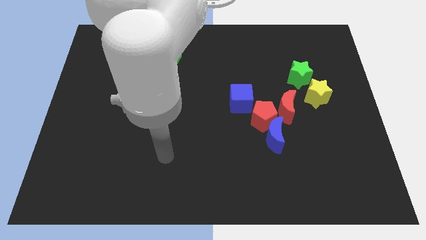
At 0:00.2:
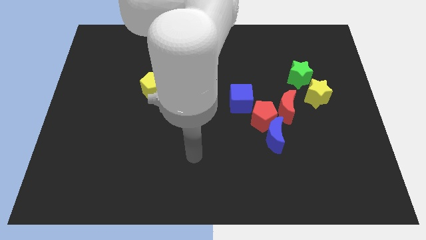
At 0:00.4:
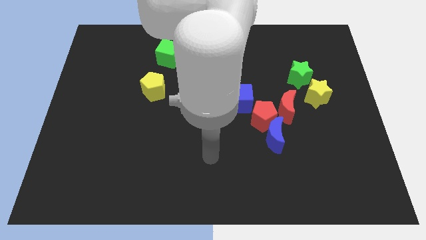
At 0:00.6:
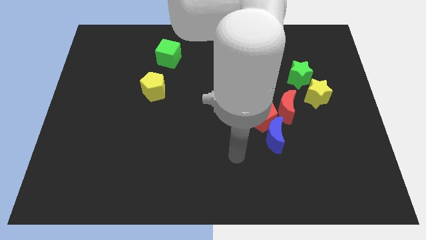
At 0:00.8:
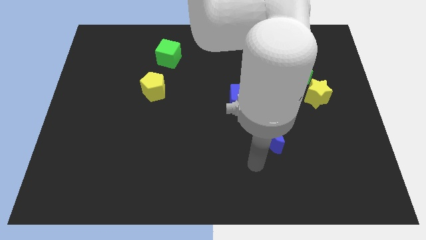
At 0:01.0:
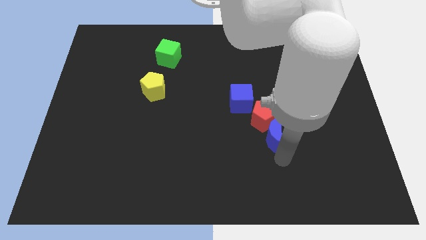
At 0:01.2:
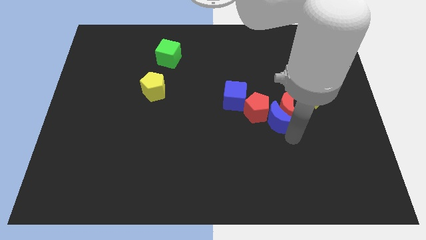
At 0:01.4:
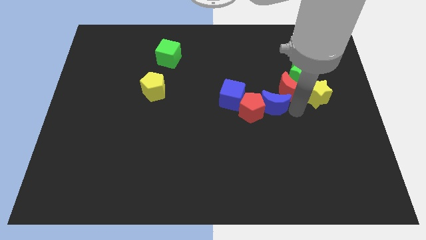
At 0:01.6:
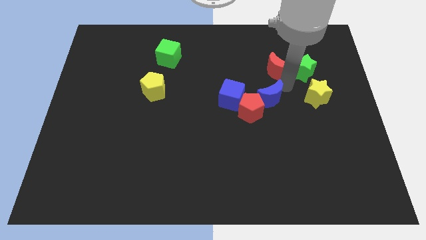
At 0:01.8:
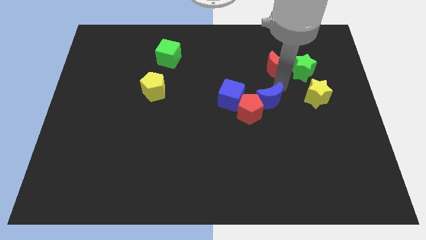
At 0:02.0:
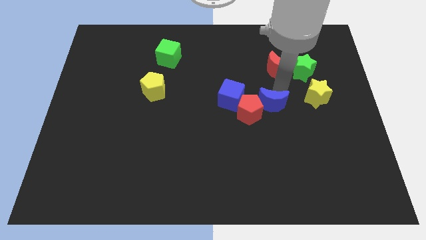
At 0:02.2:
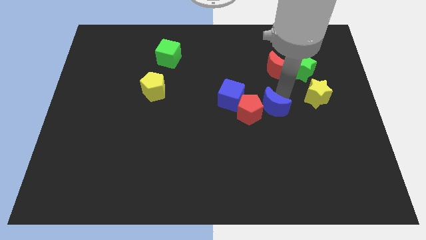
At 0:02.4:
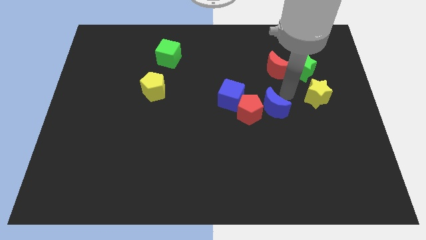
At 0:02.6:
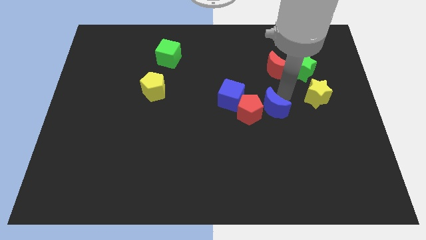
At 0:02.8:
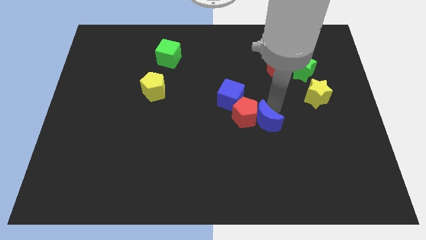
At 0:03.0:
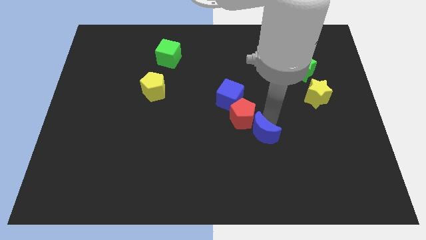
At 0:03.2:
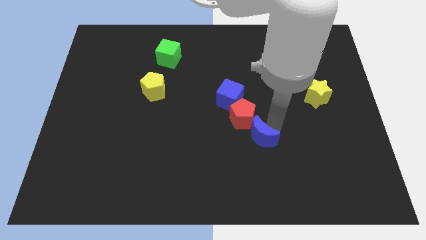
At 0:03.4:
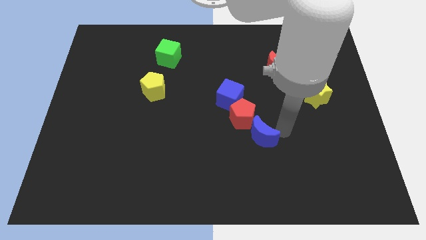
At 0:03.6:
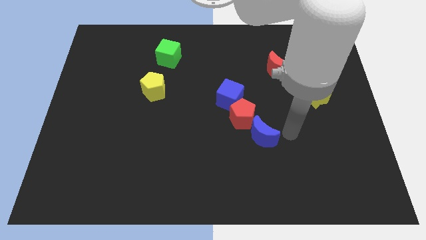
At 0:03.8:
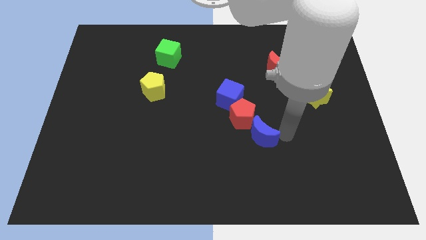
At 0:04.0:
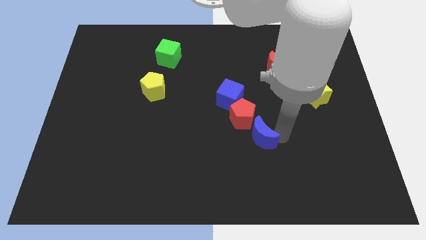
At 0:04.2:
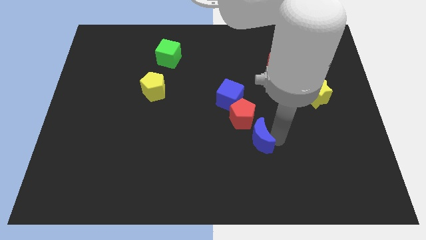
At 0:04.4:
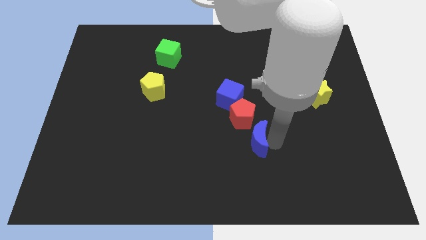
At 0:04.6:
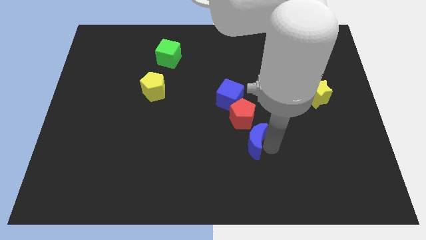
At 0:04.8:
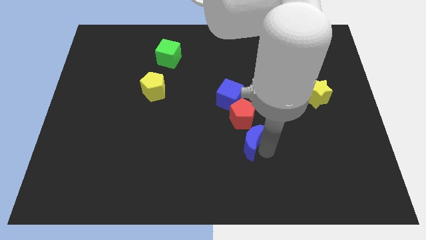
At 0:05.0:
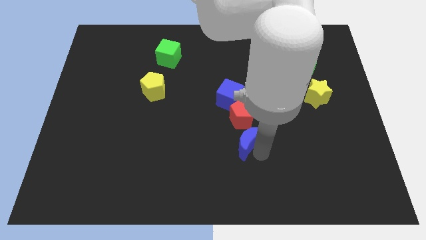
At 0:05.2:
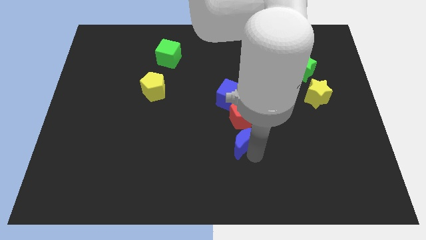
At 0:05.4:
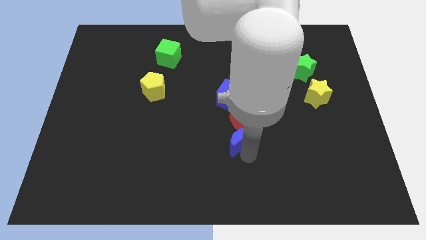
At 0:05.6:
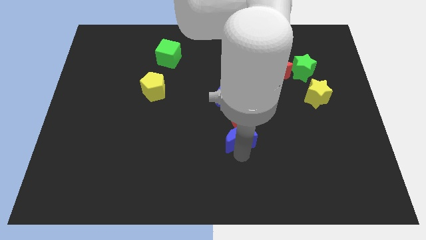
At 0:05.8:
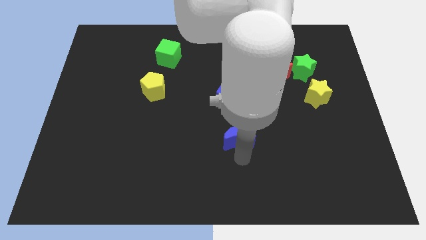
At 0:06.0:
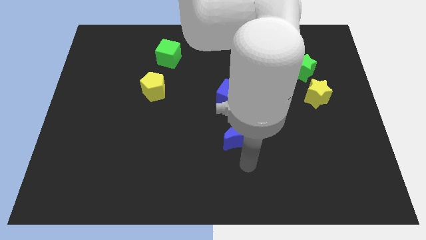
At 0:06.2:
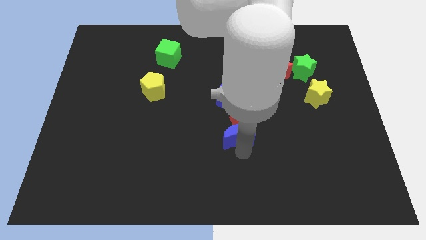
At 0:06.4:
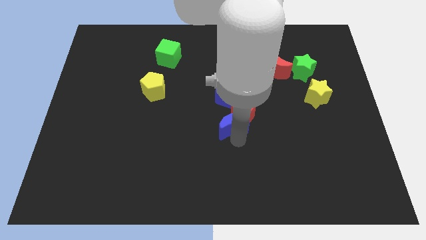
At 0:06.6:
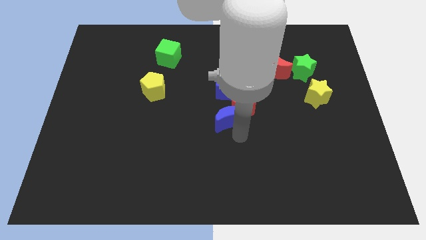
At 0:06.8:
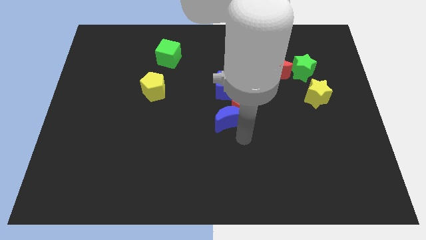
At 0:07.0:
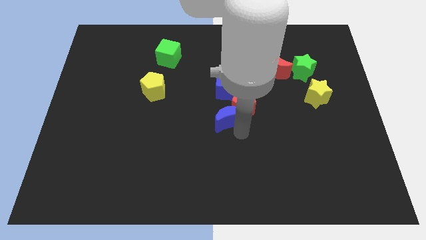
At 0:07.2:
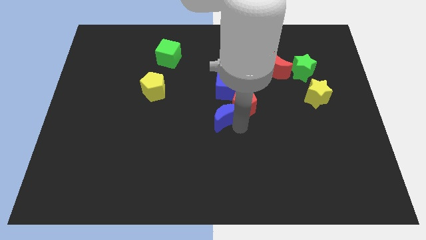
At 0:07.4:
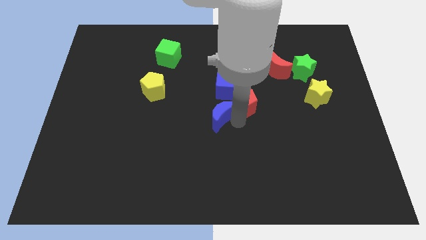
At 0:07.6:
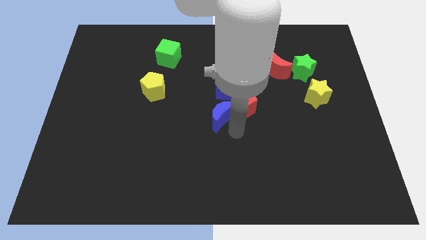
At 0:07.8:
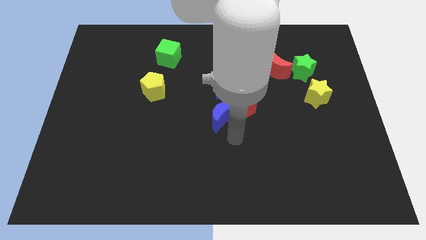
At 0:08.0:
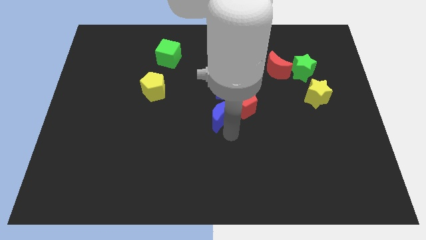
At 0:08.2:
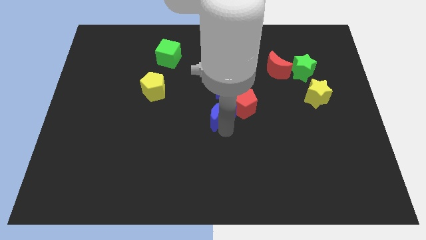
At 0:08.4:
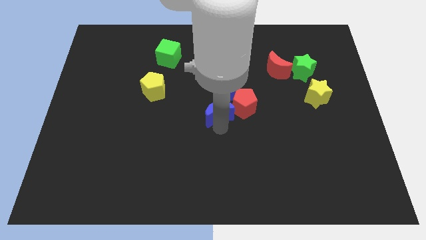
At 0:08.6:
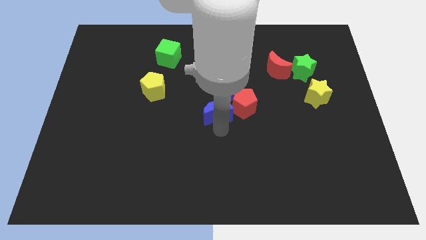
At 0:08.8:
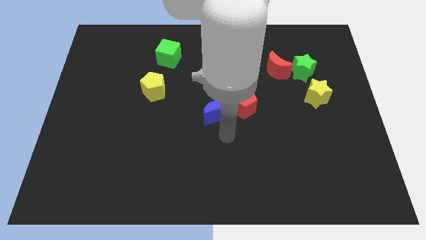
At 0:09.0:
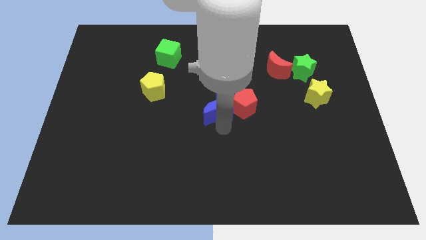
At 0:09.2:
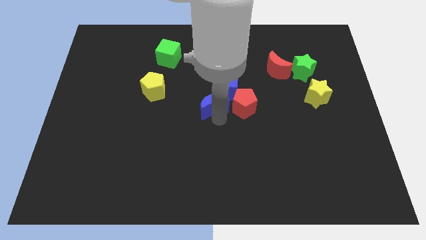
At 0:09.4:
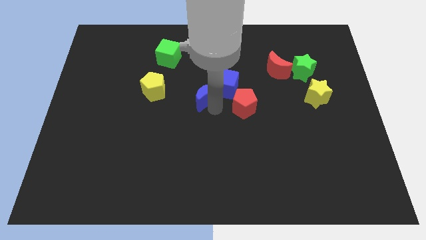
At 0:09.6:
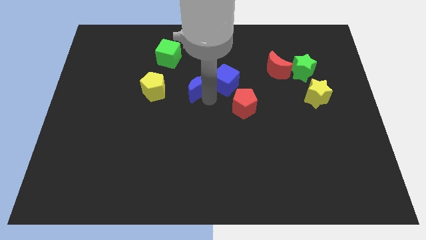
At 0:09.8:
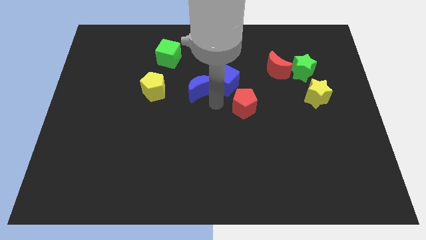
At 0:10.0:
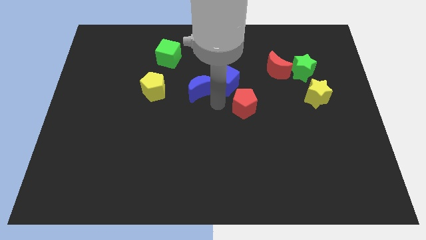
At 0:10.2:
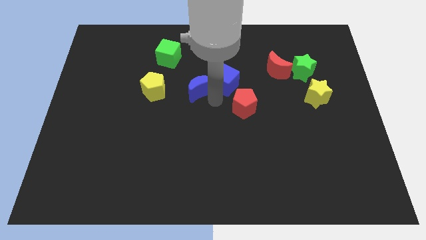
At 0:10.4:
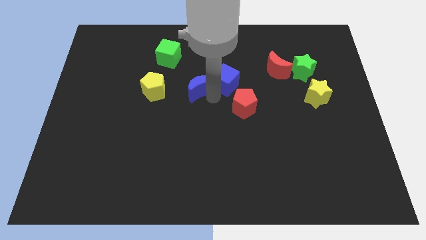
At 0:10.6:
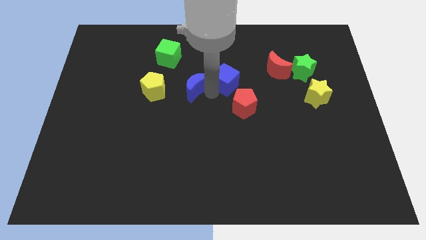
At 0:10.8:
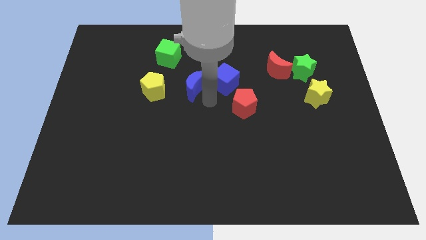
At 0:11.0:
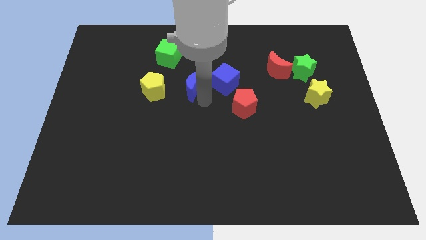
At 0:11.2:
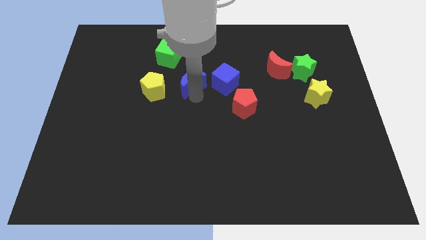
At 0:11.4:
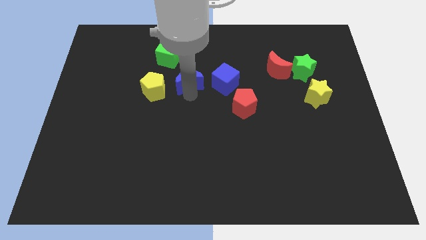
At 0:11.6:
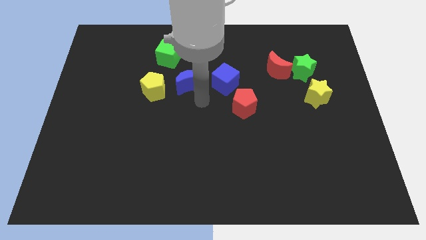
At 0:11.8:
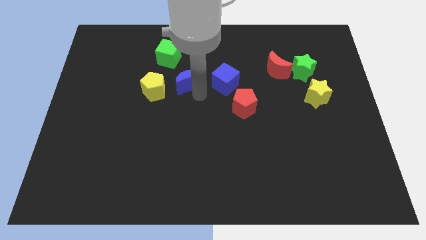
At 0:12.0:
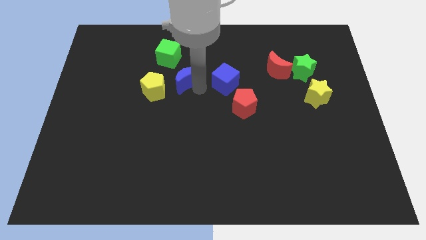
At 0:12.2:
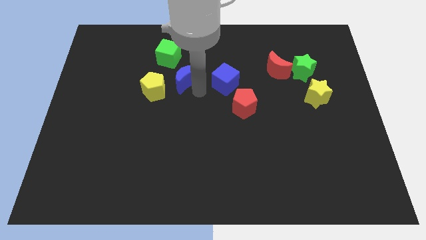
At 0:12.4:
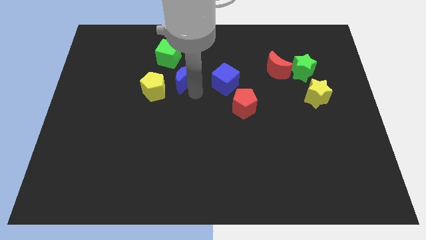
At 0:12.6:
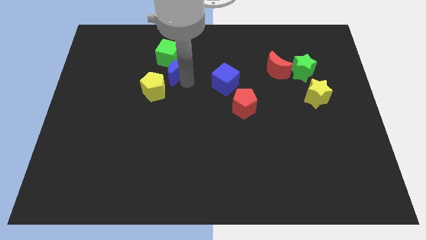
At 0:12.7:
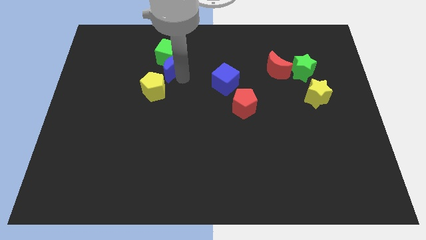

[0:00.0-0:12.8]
move the blue moon next to the green cube

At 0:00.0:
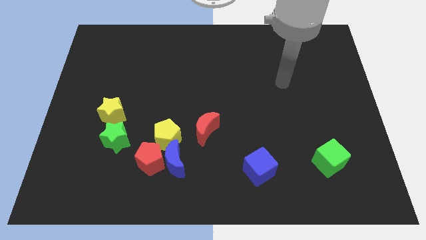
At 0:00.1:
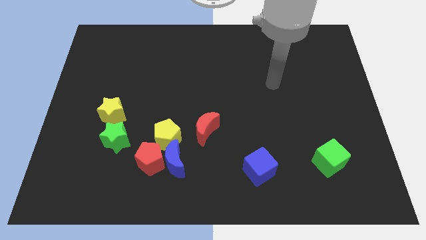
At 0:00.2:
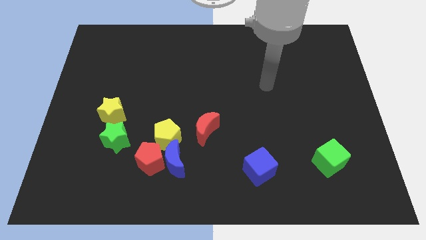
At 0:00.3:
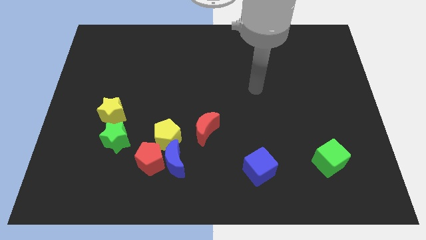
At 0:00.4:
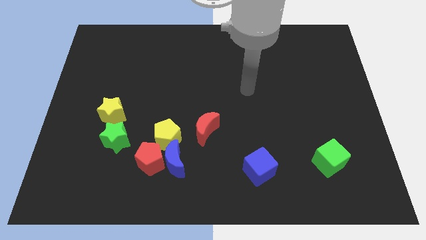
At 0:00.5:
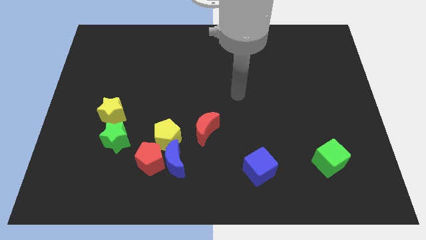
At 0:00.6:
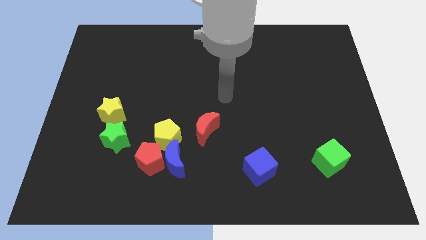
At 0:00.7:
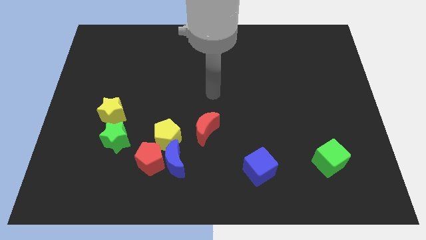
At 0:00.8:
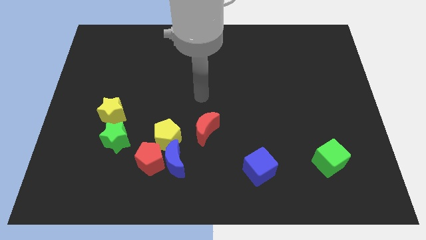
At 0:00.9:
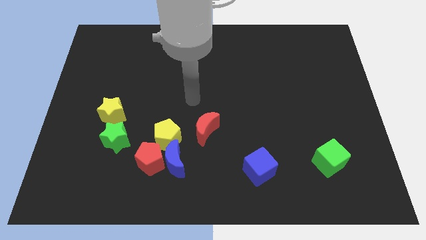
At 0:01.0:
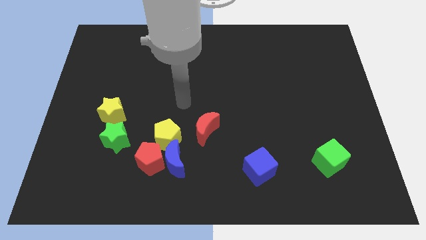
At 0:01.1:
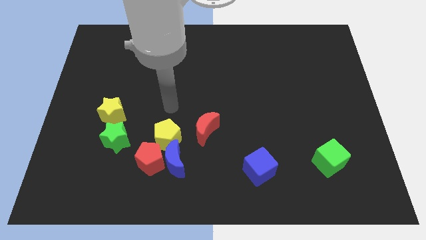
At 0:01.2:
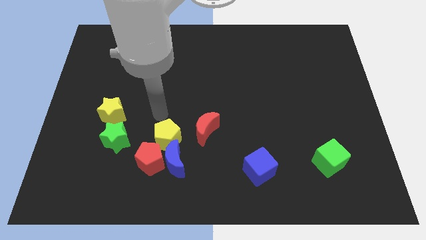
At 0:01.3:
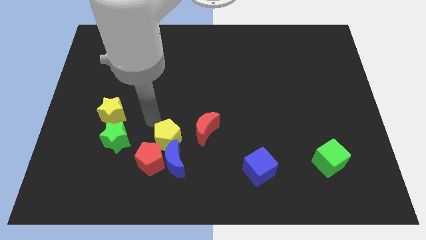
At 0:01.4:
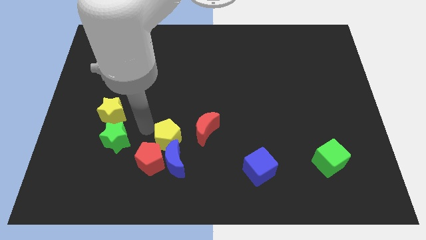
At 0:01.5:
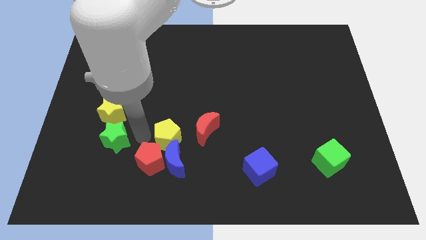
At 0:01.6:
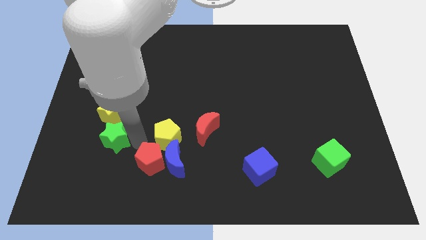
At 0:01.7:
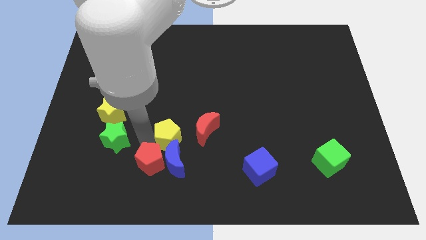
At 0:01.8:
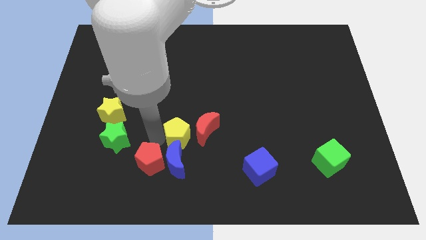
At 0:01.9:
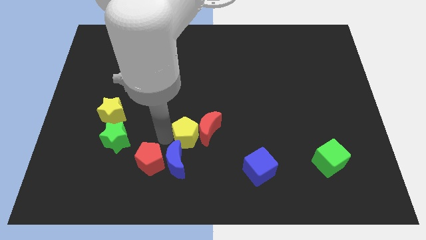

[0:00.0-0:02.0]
put the yellow pentagon towards the red moon
